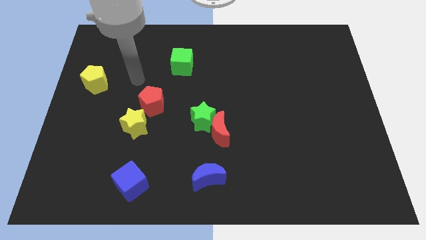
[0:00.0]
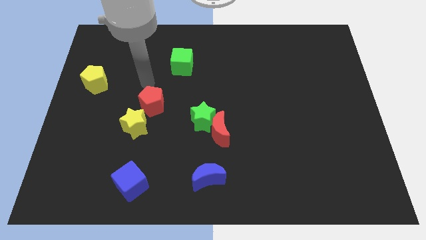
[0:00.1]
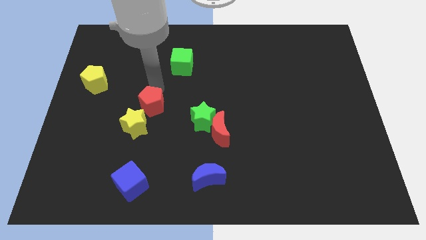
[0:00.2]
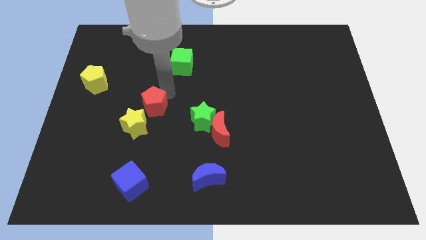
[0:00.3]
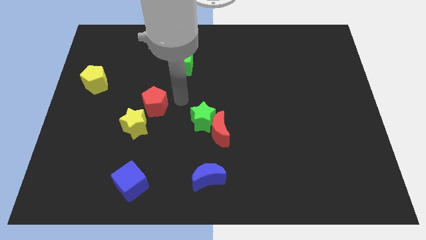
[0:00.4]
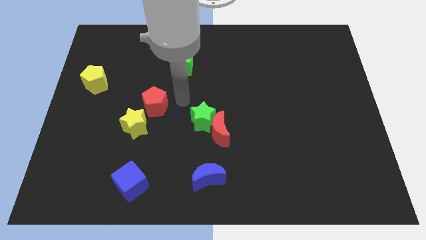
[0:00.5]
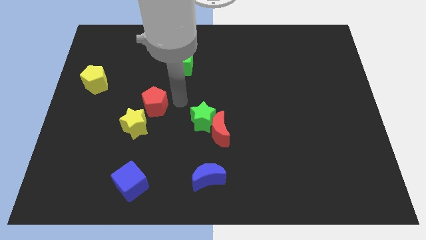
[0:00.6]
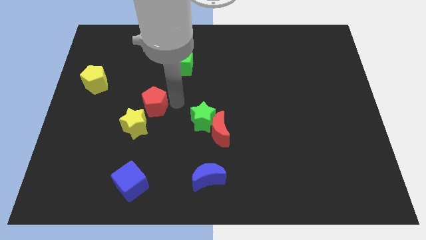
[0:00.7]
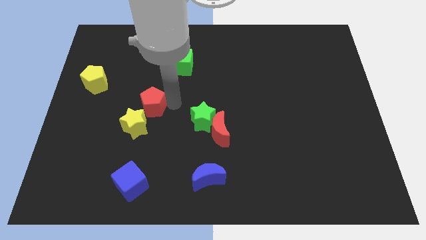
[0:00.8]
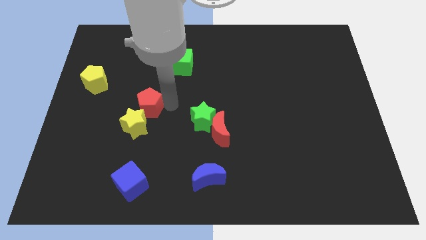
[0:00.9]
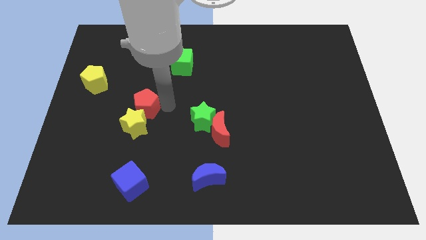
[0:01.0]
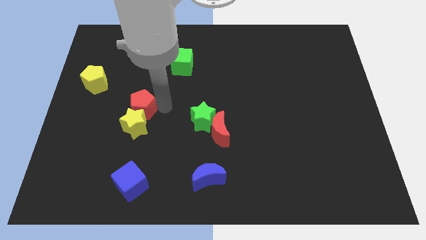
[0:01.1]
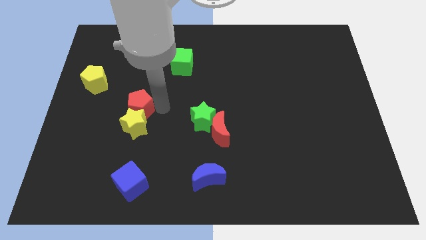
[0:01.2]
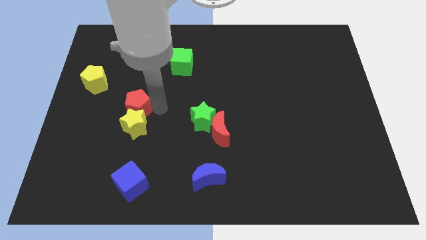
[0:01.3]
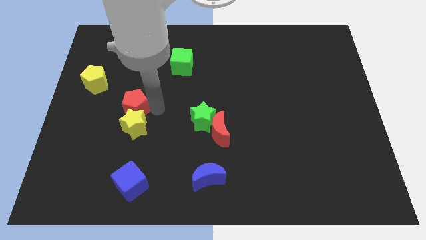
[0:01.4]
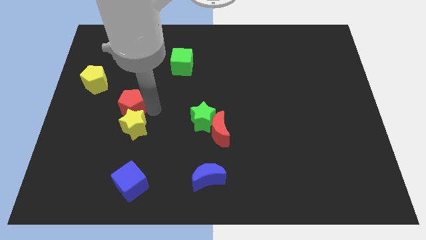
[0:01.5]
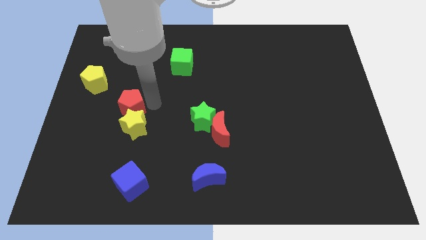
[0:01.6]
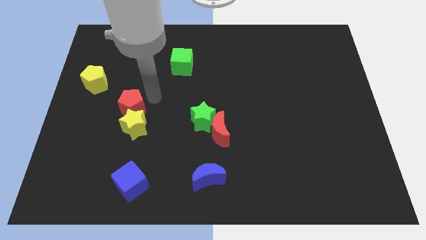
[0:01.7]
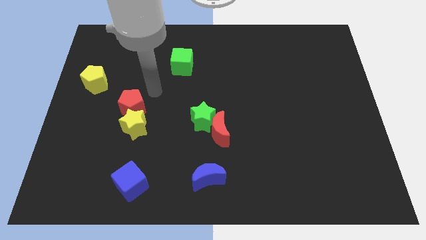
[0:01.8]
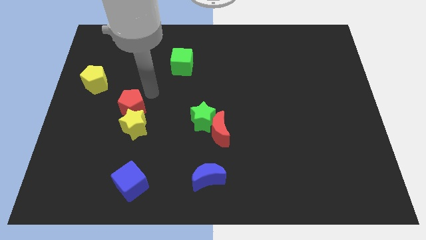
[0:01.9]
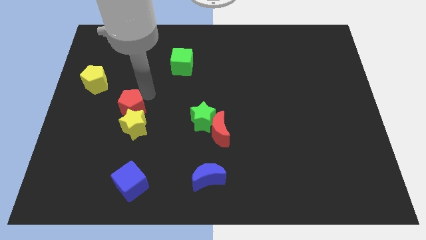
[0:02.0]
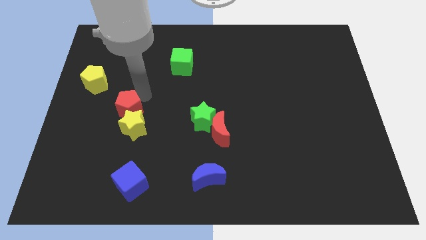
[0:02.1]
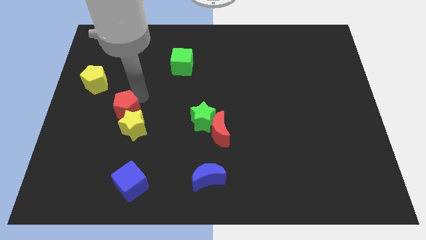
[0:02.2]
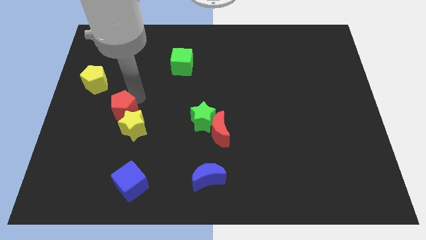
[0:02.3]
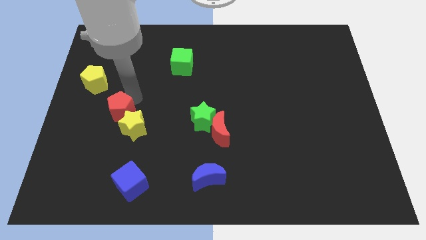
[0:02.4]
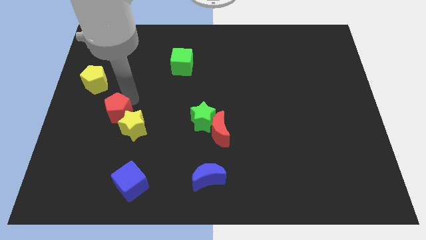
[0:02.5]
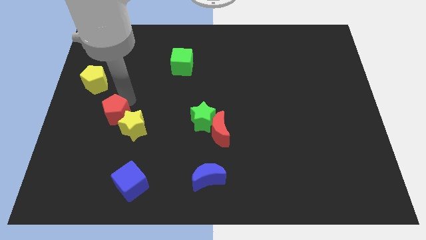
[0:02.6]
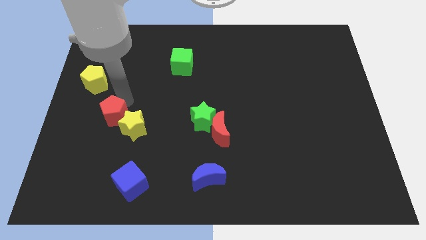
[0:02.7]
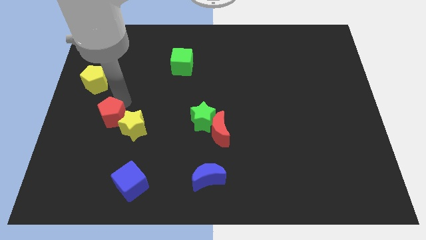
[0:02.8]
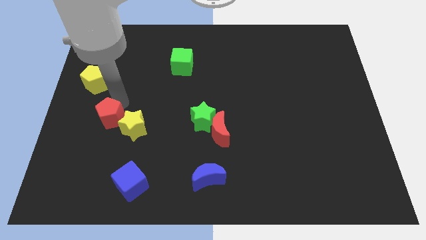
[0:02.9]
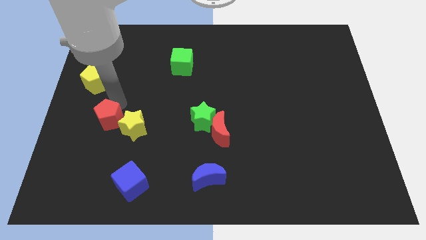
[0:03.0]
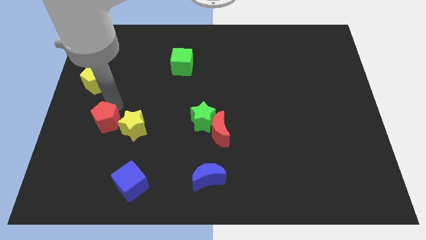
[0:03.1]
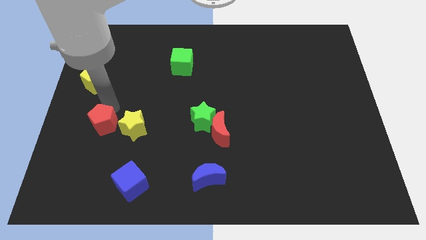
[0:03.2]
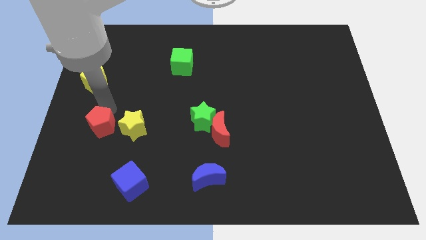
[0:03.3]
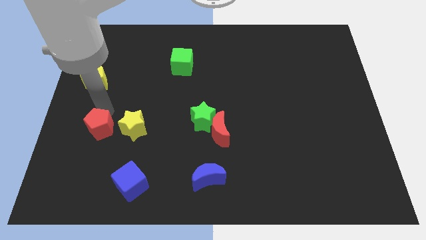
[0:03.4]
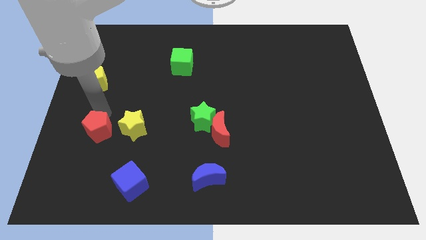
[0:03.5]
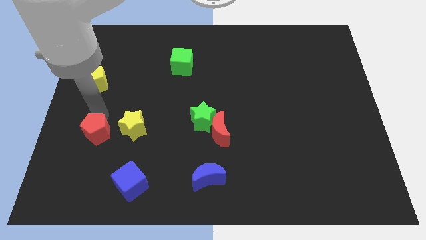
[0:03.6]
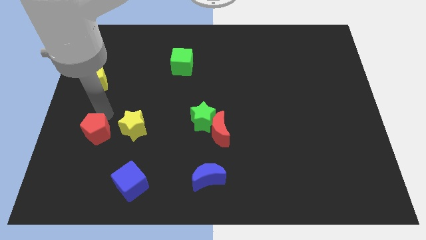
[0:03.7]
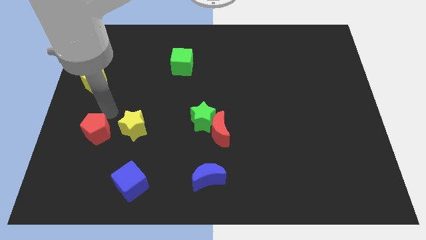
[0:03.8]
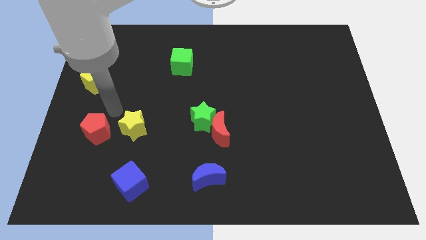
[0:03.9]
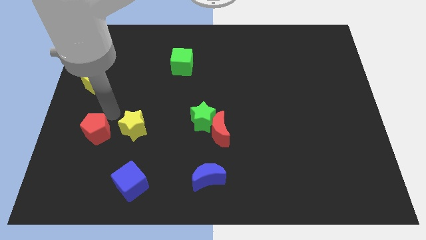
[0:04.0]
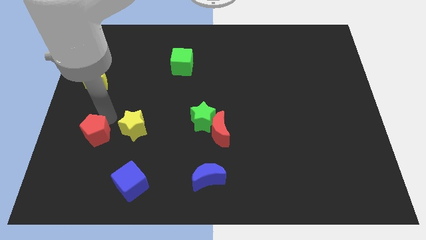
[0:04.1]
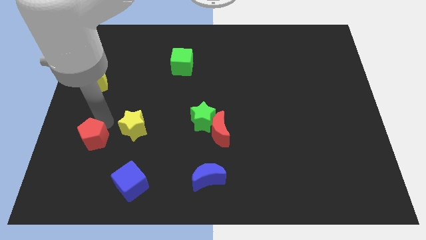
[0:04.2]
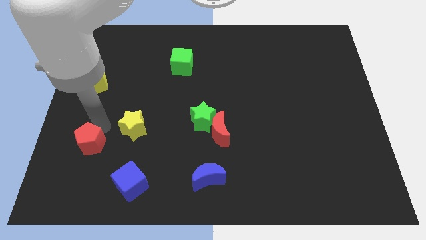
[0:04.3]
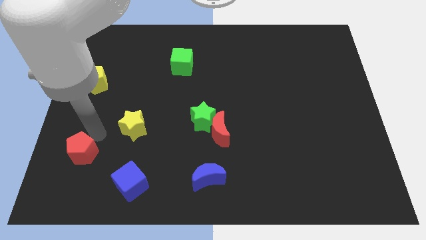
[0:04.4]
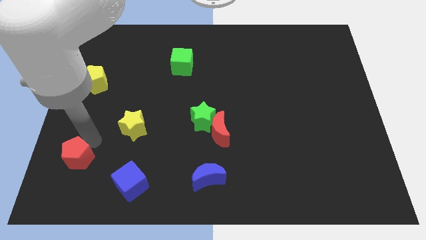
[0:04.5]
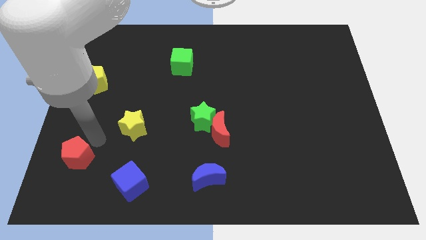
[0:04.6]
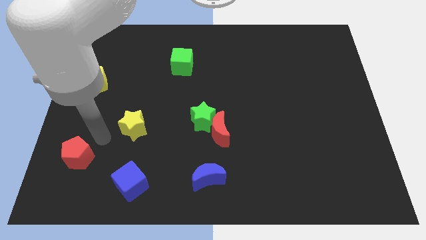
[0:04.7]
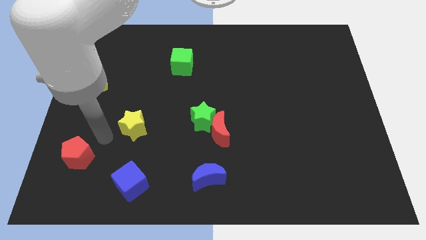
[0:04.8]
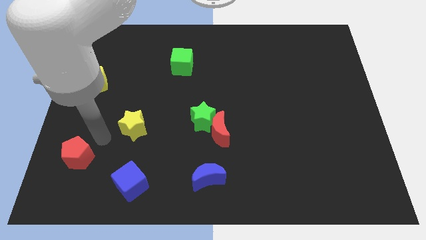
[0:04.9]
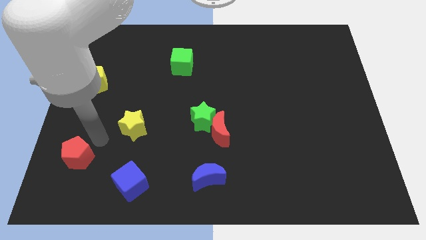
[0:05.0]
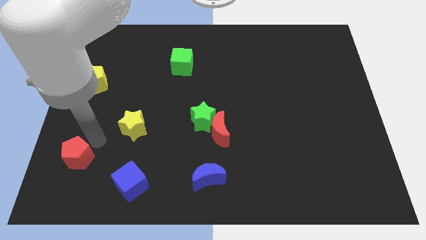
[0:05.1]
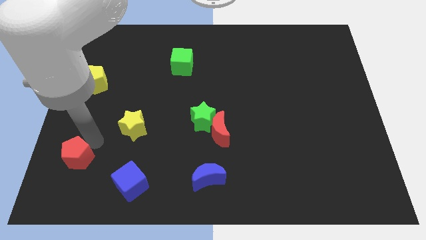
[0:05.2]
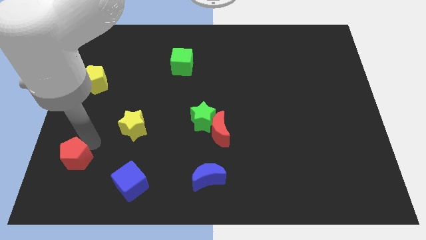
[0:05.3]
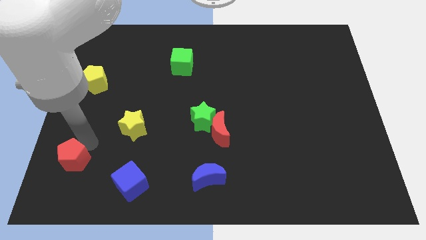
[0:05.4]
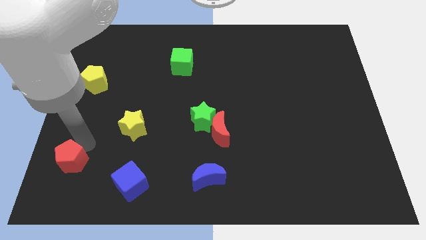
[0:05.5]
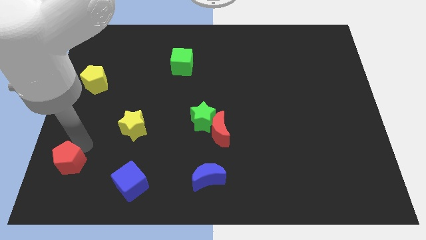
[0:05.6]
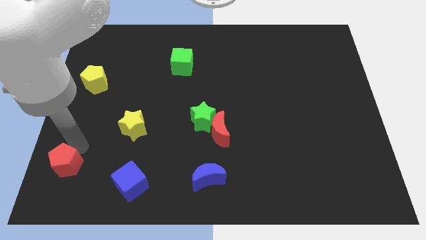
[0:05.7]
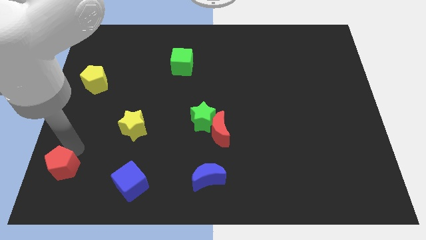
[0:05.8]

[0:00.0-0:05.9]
slide the red pentagon to the lower left corner

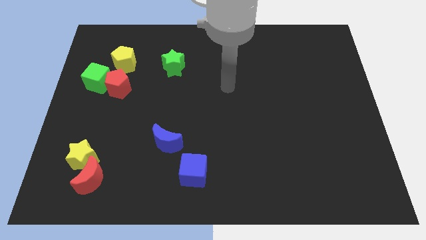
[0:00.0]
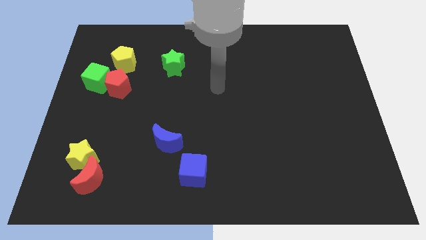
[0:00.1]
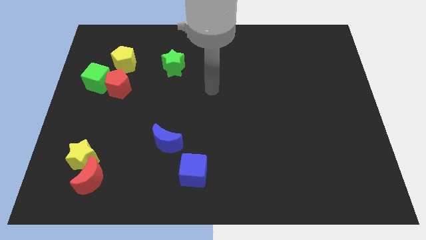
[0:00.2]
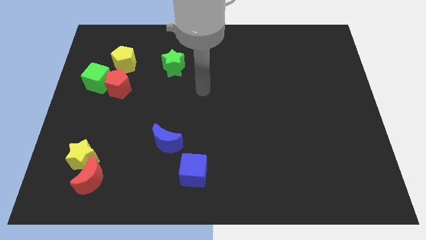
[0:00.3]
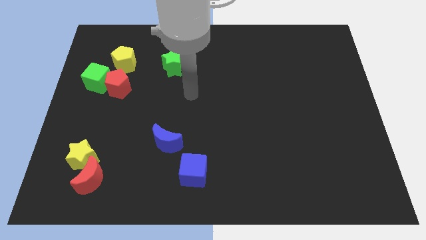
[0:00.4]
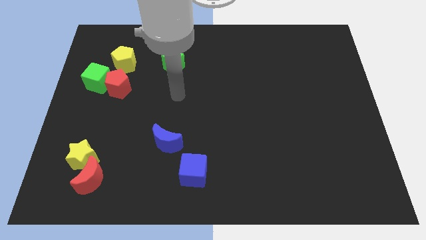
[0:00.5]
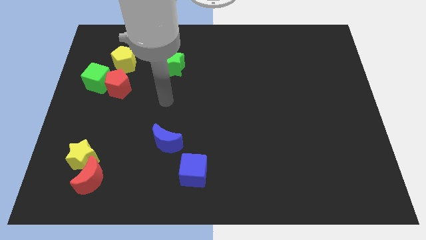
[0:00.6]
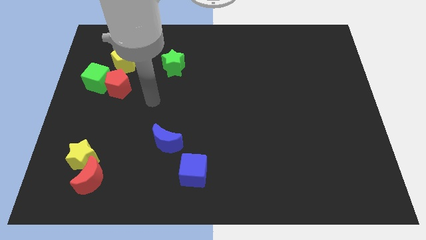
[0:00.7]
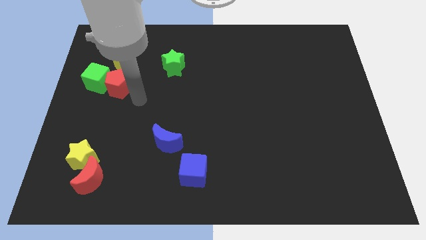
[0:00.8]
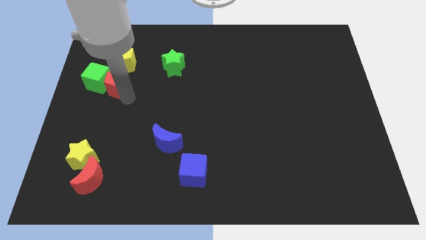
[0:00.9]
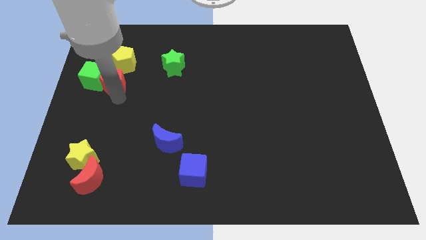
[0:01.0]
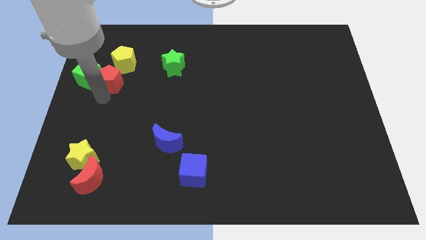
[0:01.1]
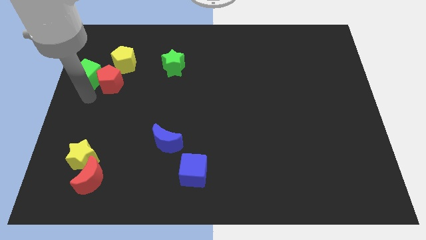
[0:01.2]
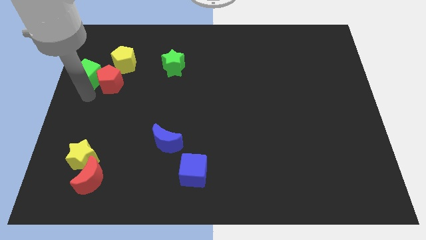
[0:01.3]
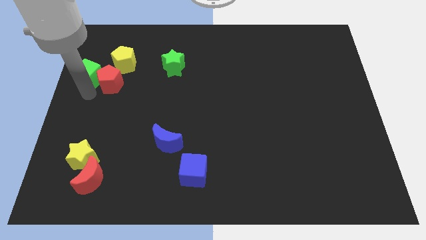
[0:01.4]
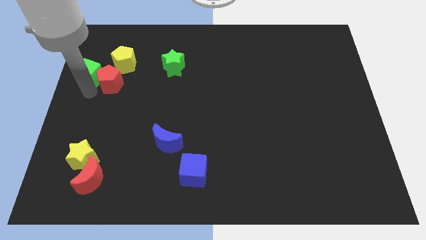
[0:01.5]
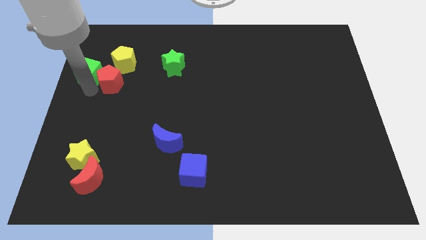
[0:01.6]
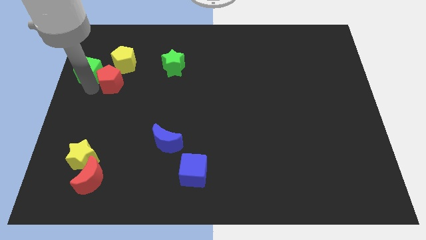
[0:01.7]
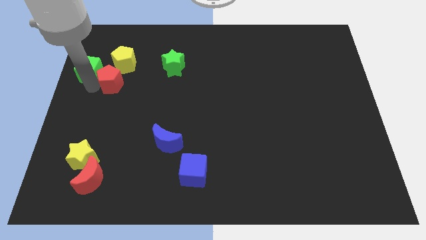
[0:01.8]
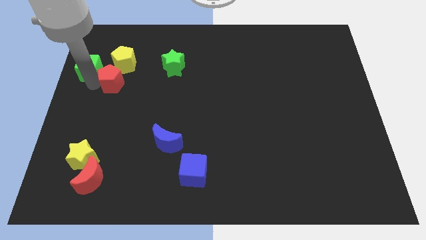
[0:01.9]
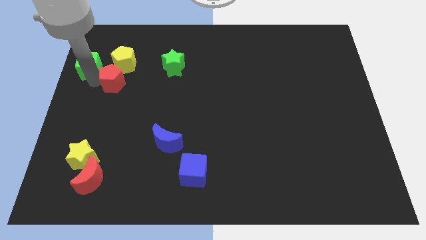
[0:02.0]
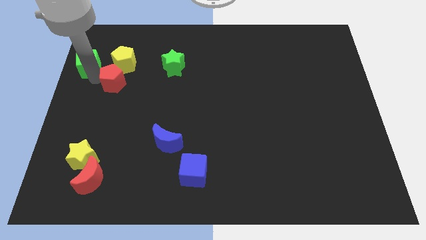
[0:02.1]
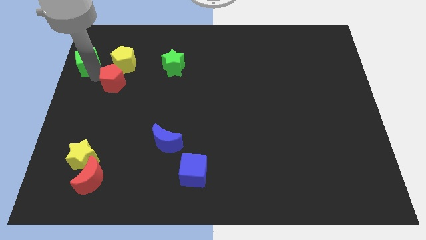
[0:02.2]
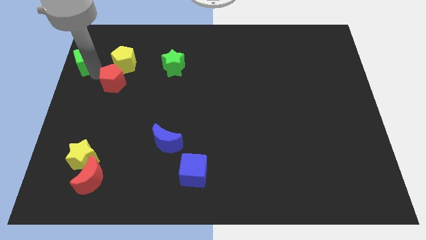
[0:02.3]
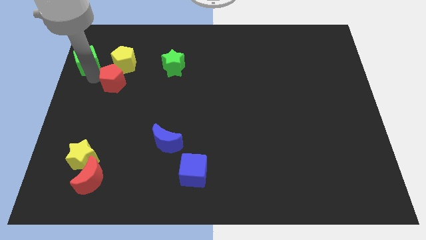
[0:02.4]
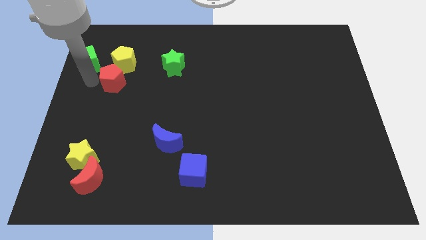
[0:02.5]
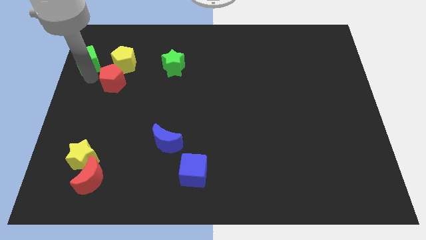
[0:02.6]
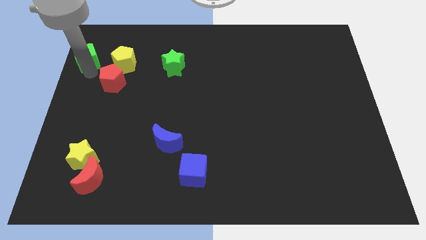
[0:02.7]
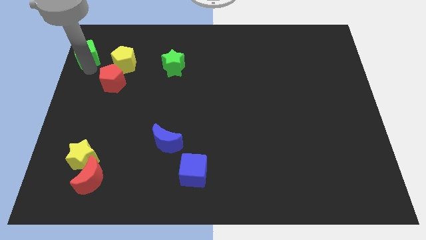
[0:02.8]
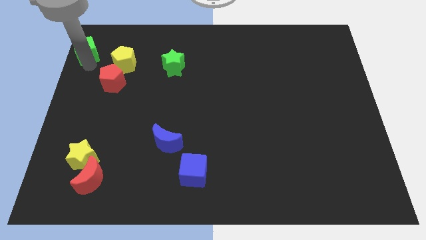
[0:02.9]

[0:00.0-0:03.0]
move the green cube to the top left
